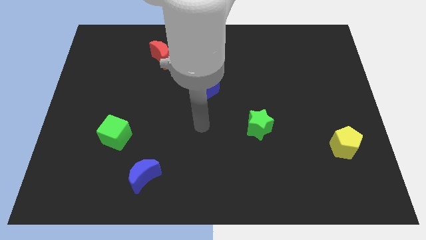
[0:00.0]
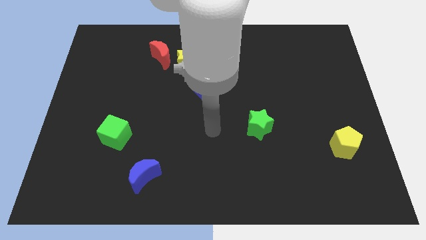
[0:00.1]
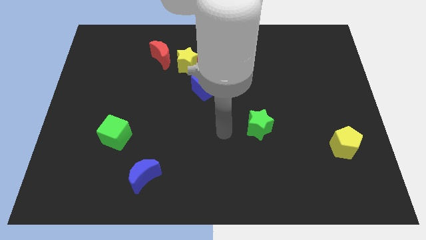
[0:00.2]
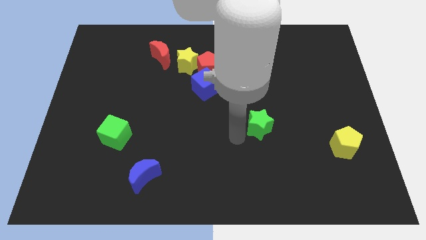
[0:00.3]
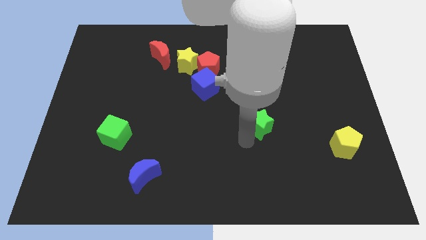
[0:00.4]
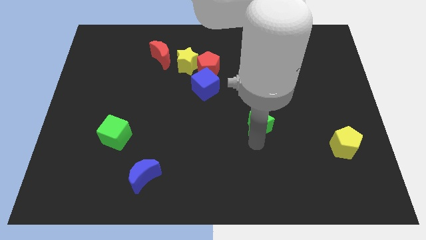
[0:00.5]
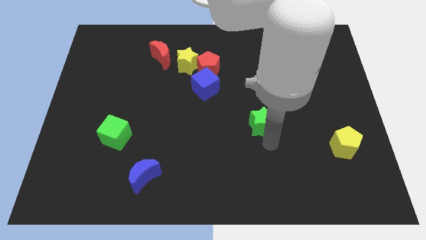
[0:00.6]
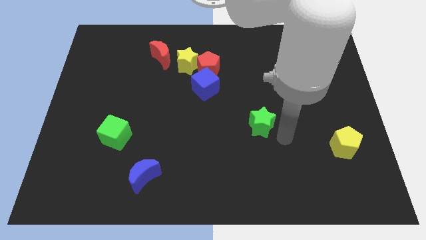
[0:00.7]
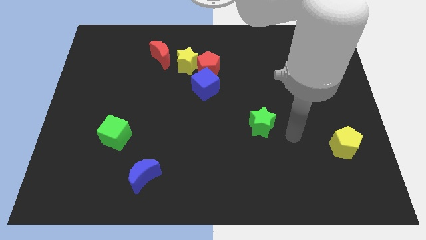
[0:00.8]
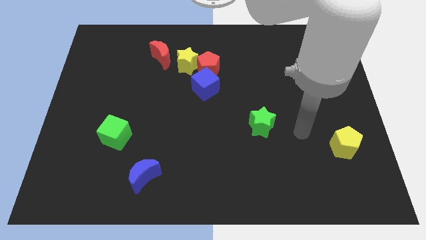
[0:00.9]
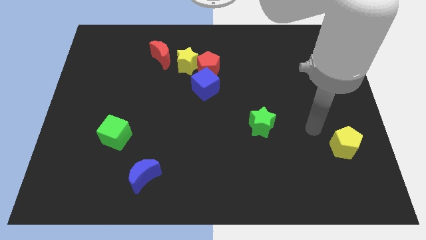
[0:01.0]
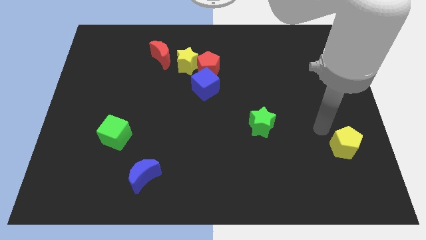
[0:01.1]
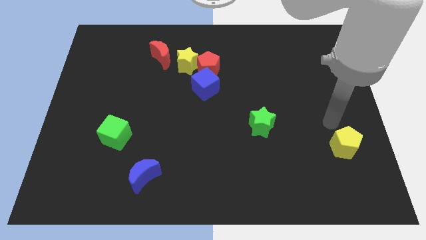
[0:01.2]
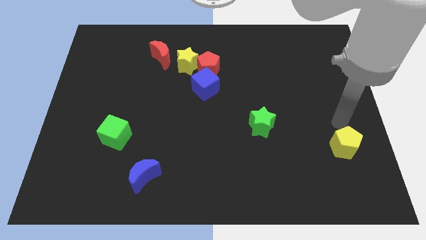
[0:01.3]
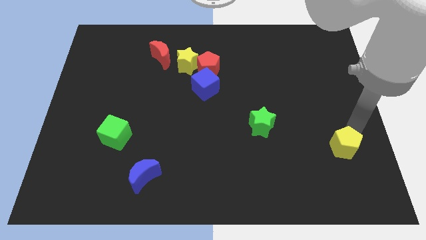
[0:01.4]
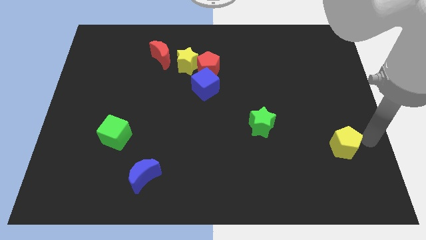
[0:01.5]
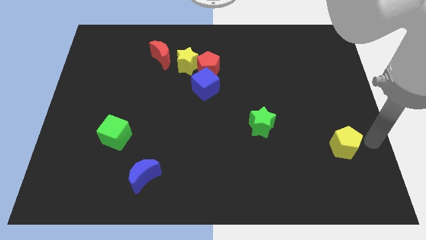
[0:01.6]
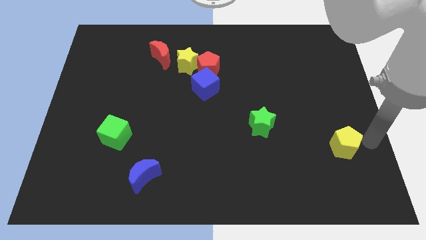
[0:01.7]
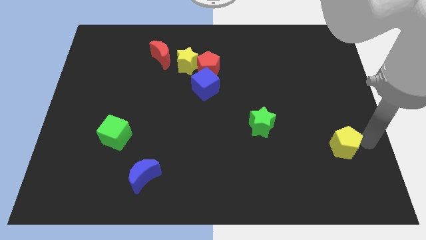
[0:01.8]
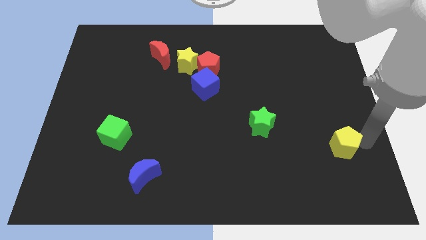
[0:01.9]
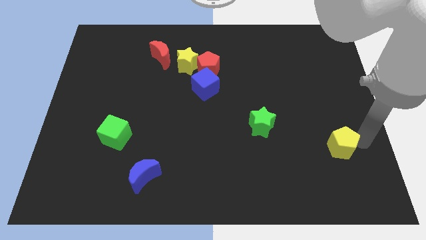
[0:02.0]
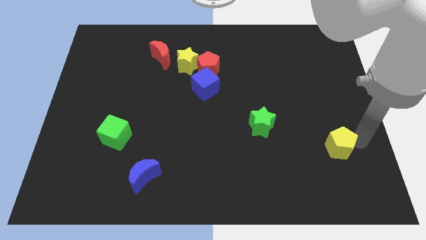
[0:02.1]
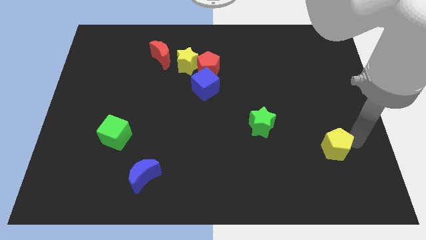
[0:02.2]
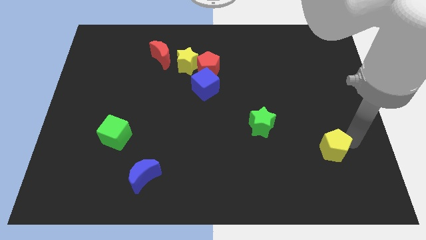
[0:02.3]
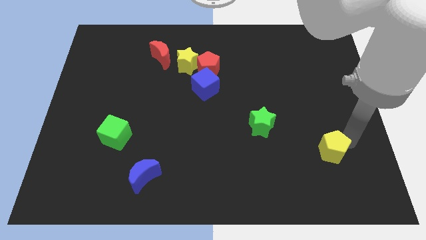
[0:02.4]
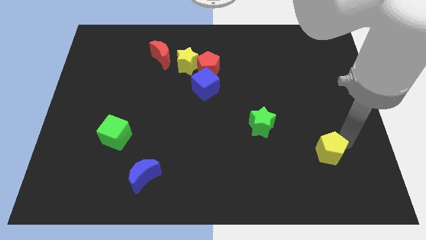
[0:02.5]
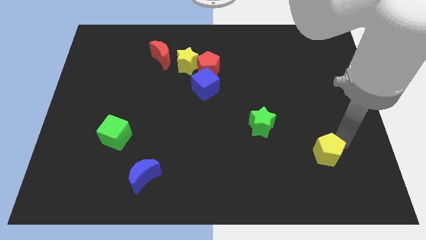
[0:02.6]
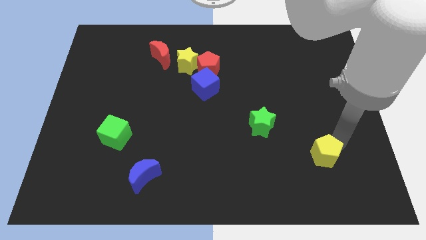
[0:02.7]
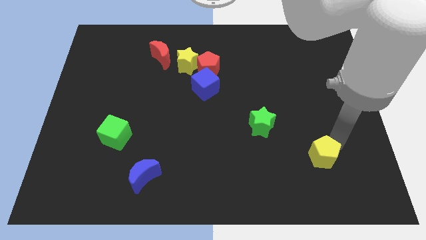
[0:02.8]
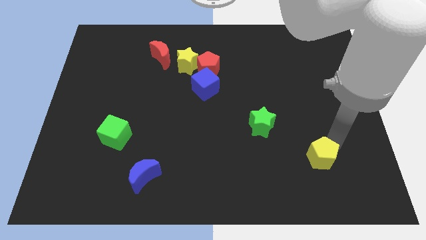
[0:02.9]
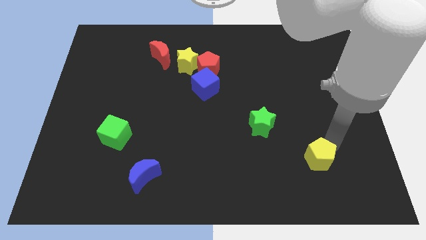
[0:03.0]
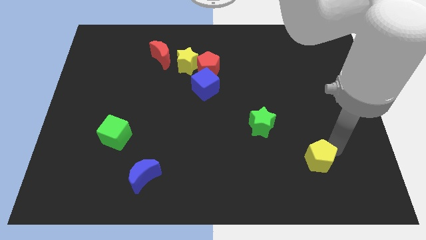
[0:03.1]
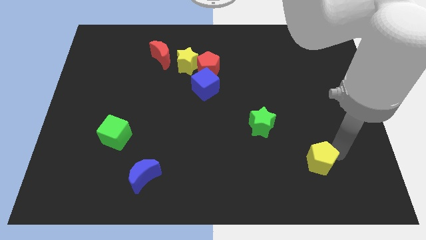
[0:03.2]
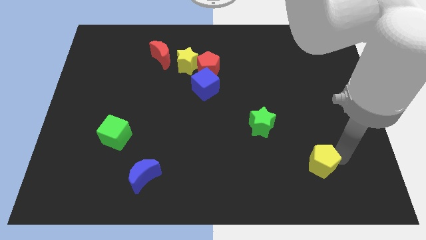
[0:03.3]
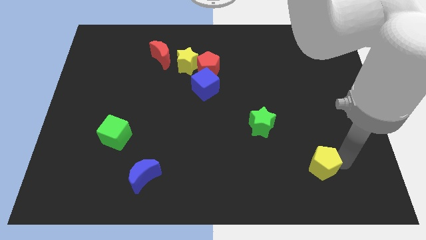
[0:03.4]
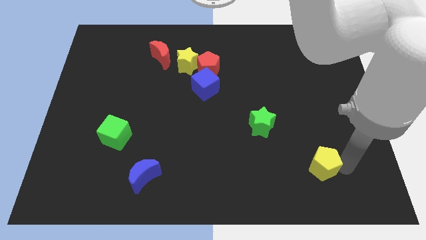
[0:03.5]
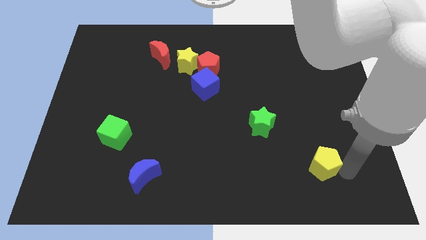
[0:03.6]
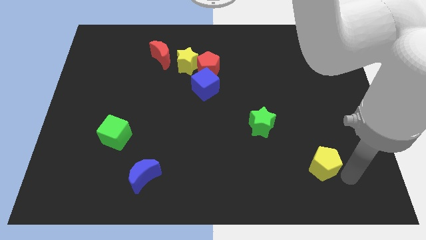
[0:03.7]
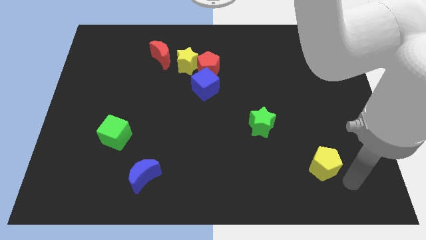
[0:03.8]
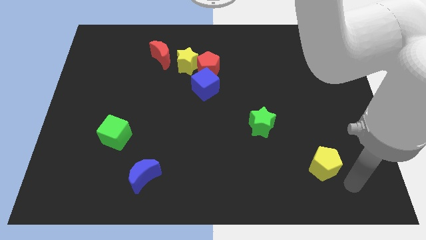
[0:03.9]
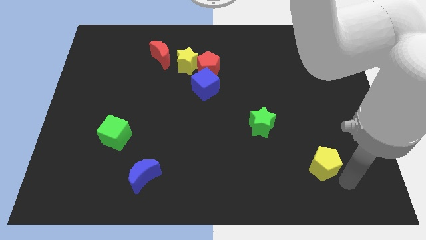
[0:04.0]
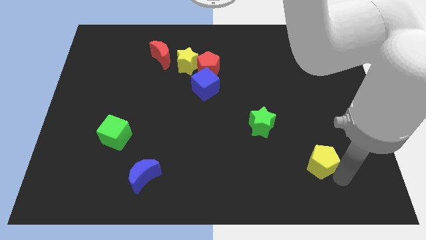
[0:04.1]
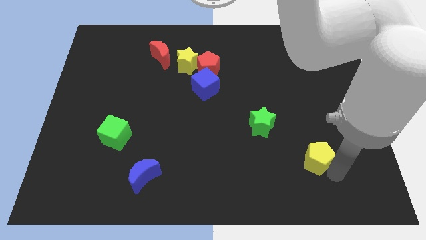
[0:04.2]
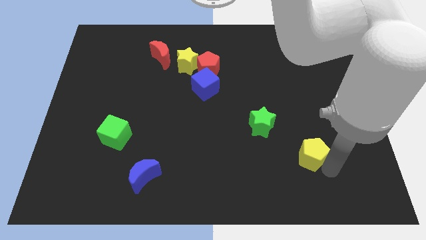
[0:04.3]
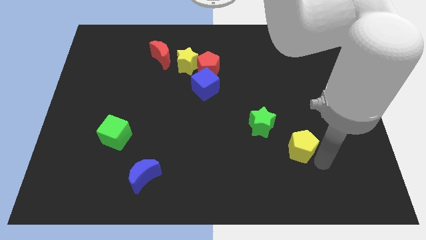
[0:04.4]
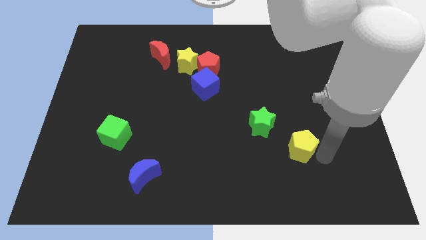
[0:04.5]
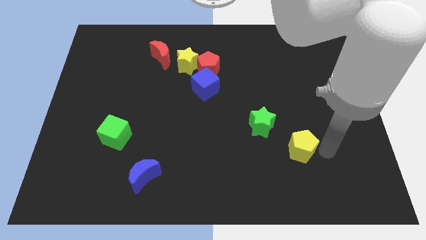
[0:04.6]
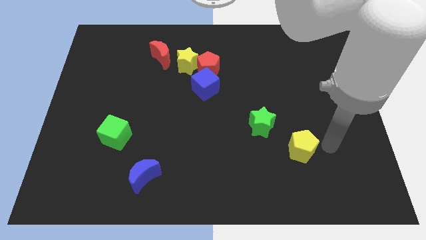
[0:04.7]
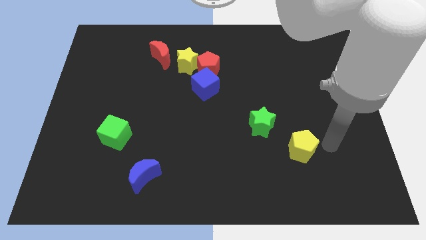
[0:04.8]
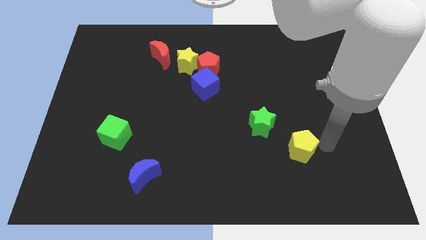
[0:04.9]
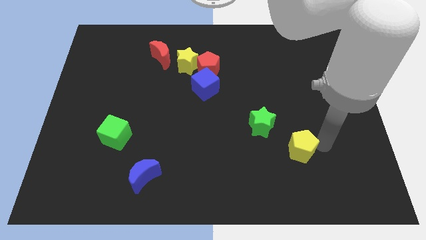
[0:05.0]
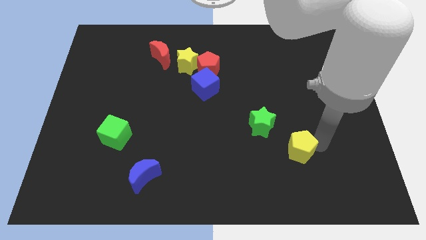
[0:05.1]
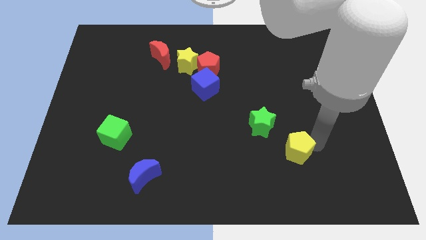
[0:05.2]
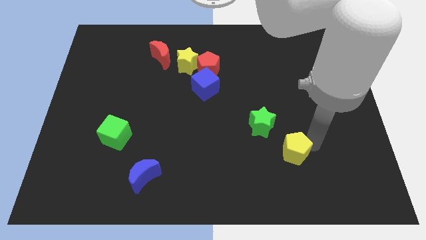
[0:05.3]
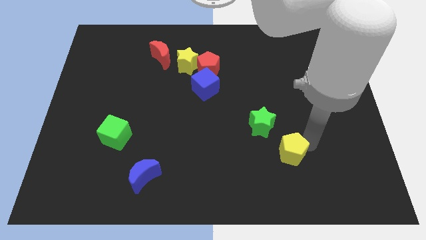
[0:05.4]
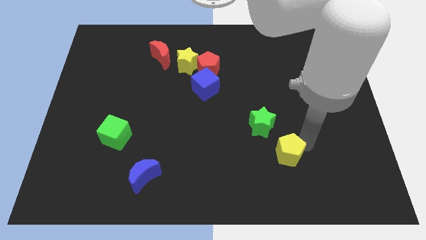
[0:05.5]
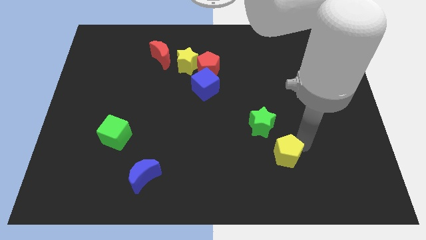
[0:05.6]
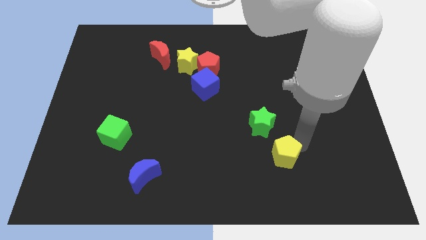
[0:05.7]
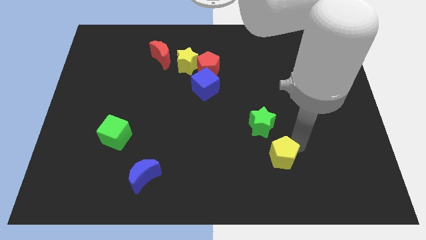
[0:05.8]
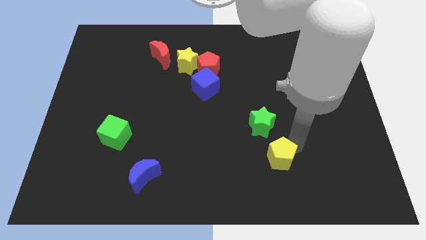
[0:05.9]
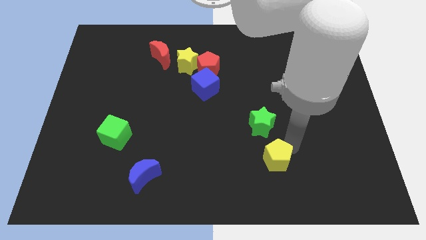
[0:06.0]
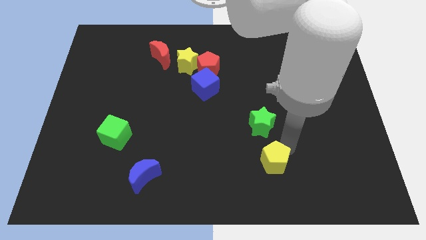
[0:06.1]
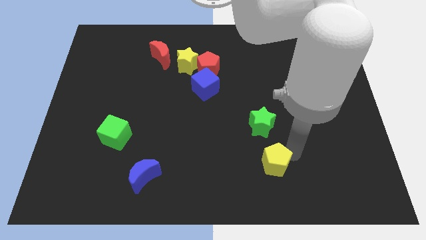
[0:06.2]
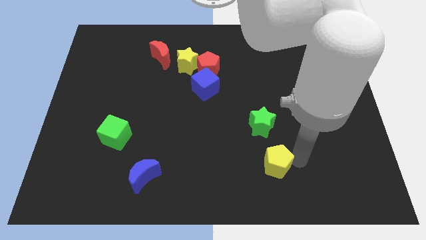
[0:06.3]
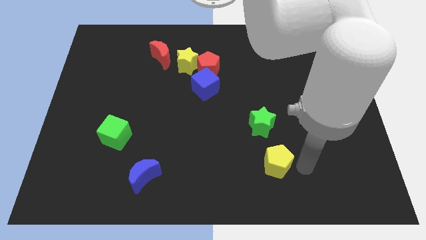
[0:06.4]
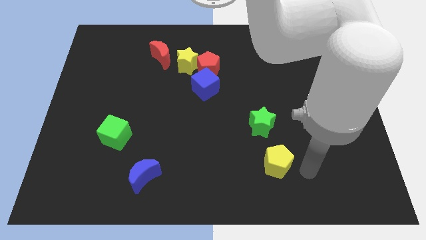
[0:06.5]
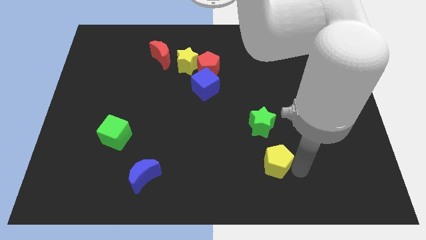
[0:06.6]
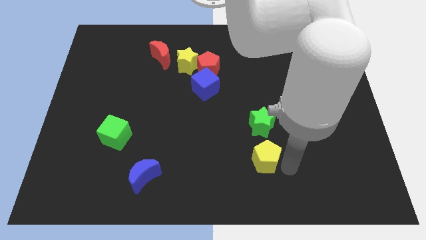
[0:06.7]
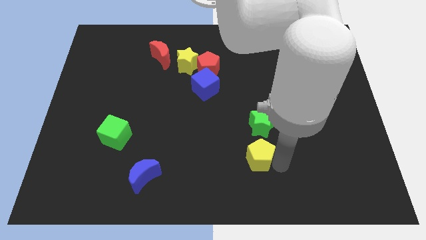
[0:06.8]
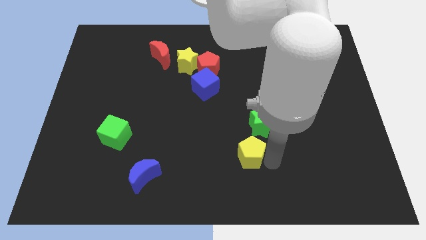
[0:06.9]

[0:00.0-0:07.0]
push the yellow pentagon to the left

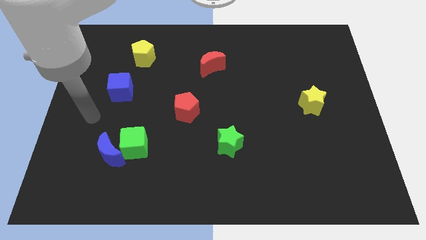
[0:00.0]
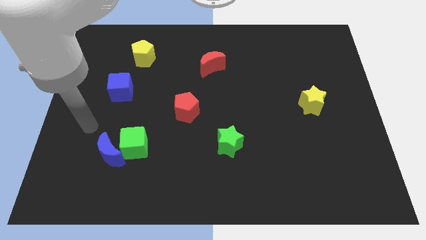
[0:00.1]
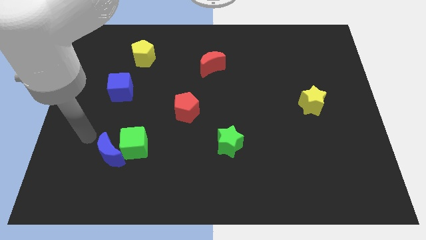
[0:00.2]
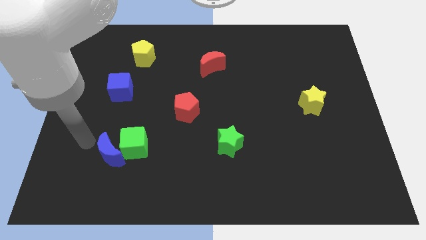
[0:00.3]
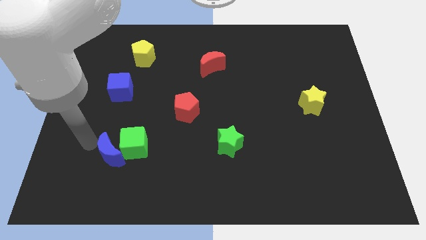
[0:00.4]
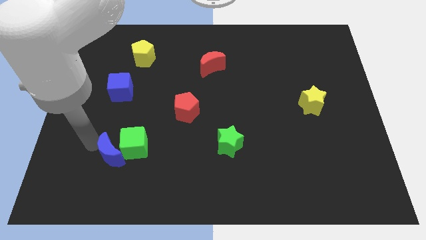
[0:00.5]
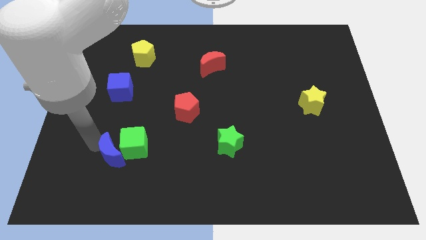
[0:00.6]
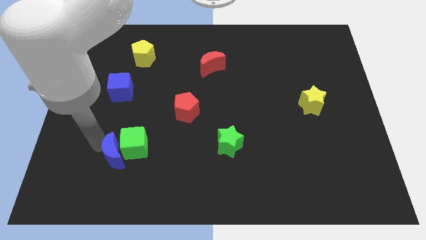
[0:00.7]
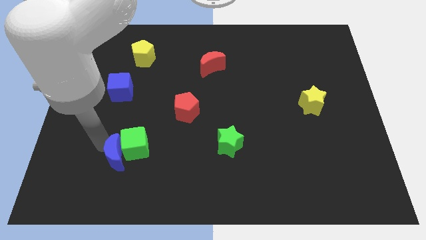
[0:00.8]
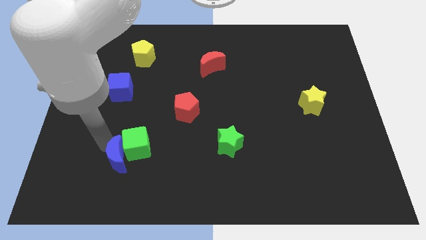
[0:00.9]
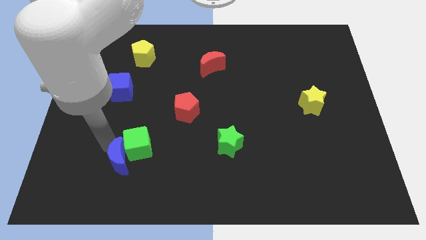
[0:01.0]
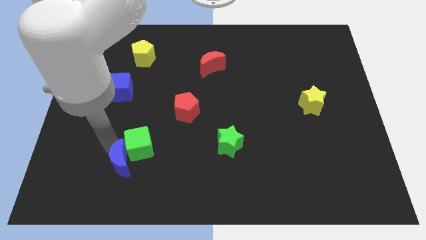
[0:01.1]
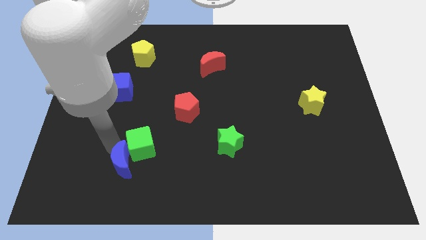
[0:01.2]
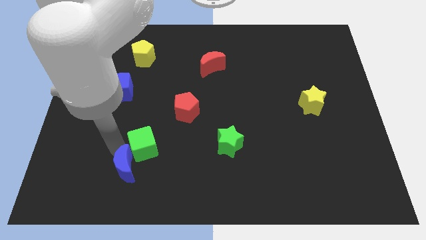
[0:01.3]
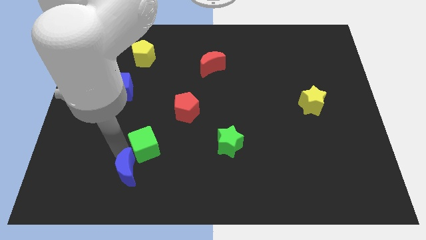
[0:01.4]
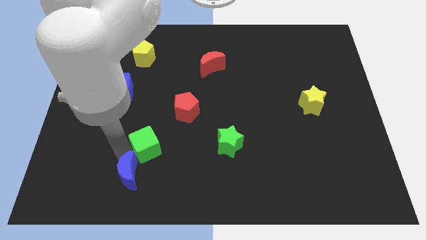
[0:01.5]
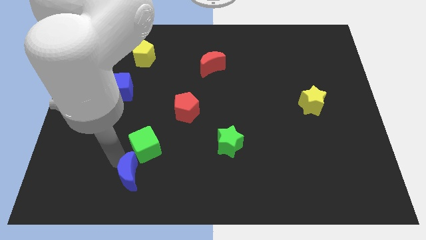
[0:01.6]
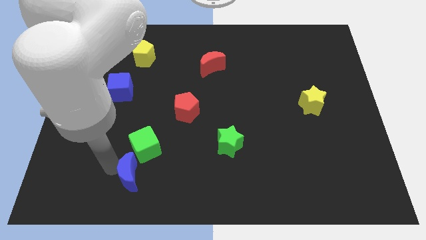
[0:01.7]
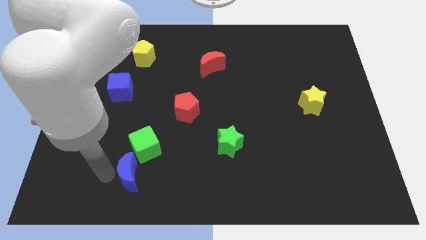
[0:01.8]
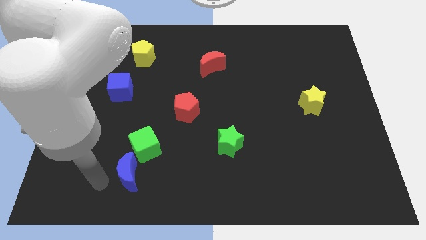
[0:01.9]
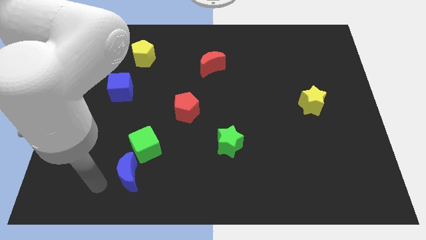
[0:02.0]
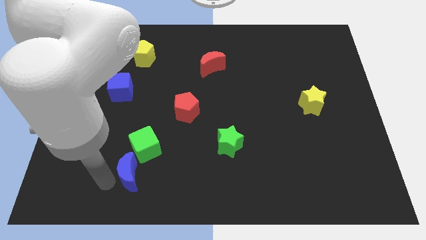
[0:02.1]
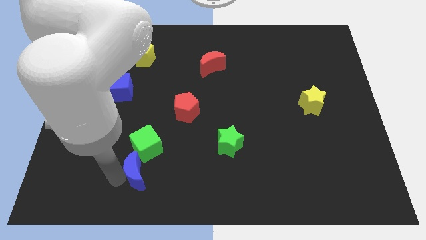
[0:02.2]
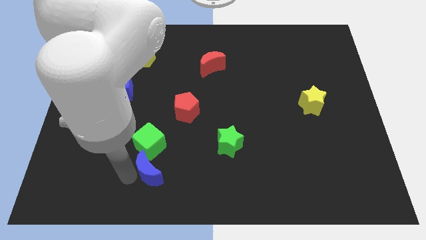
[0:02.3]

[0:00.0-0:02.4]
move the blue moon a little bit to the right
